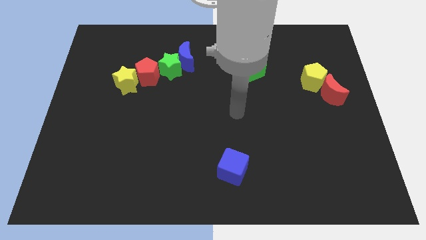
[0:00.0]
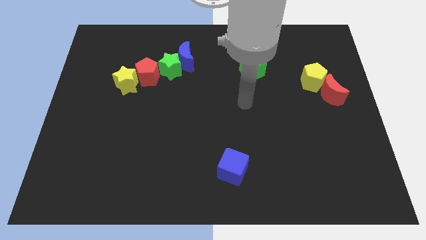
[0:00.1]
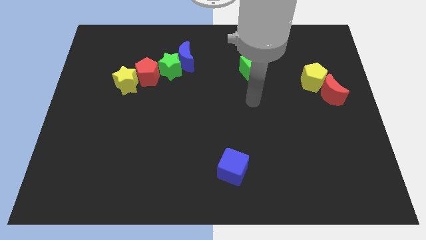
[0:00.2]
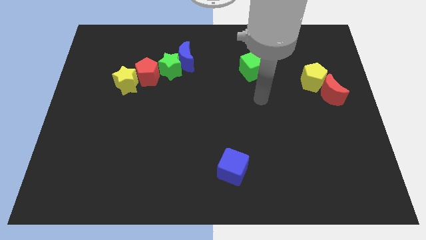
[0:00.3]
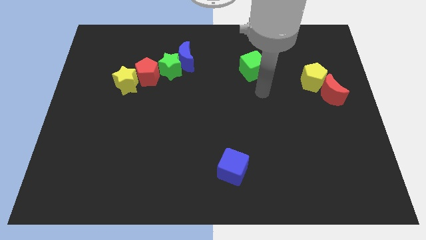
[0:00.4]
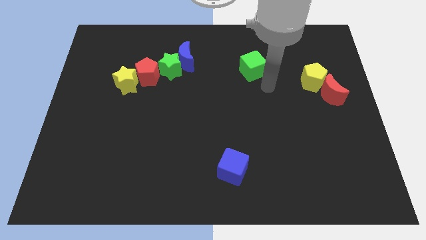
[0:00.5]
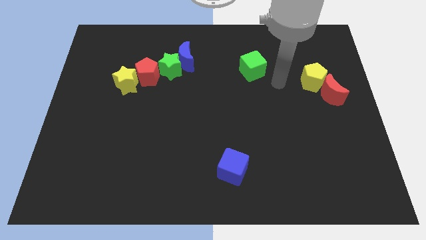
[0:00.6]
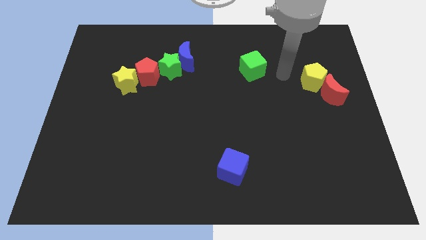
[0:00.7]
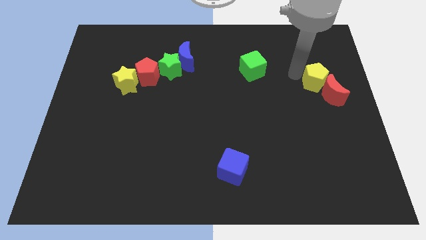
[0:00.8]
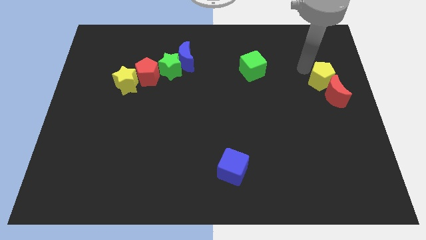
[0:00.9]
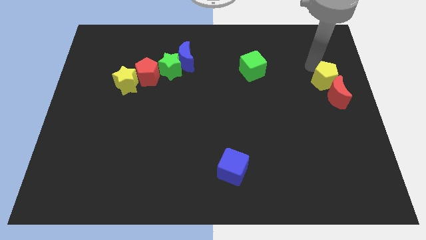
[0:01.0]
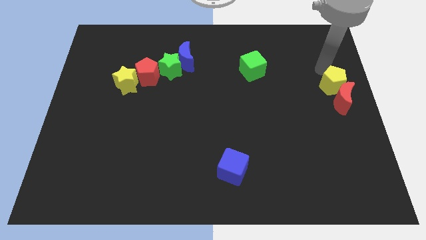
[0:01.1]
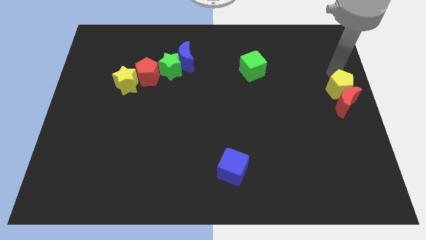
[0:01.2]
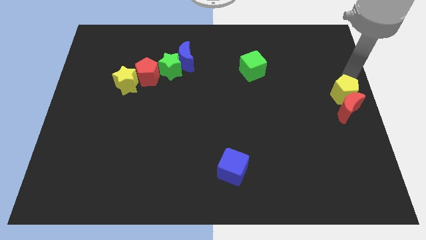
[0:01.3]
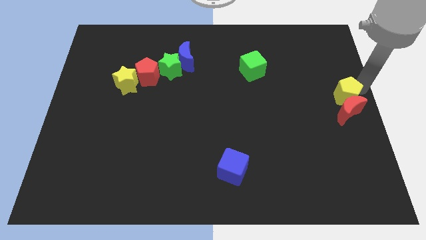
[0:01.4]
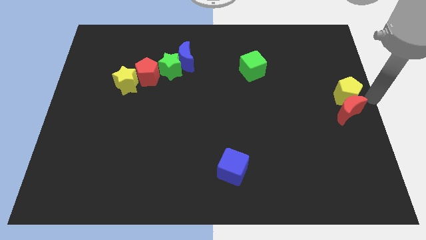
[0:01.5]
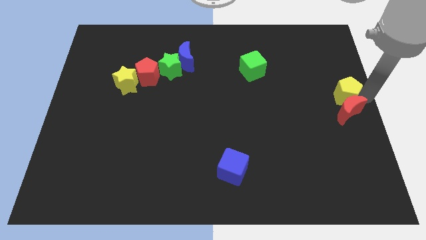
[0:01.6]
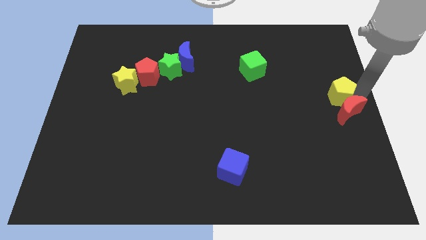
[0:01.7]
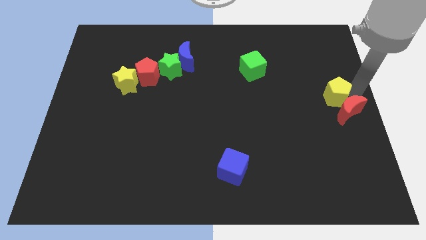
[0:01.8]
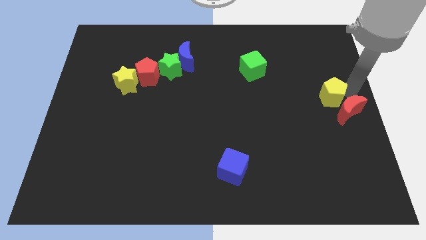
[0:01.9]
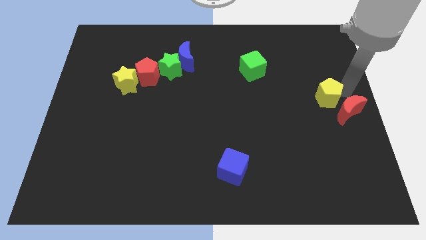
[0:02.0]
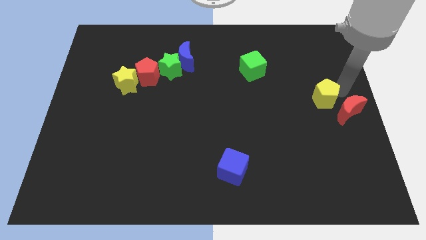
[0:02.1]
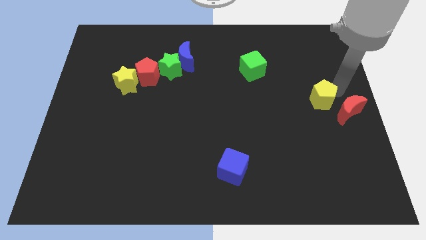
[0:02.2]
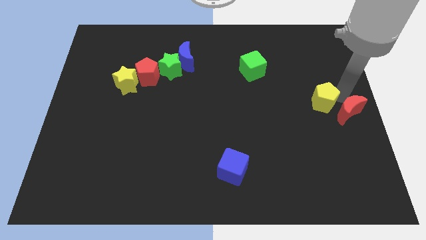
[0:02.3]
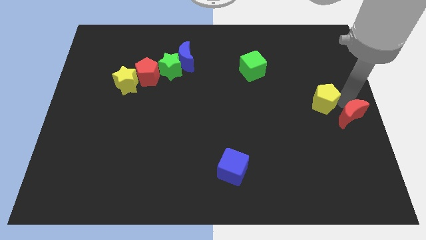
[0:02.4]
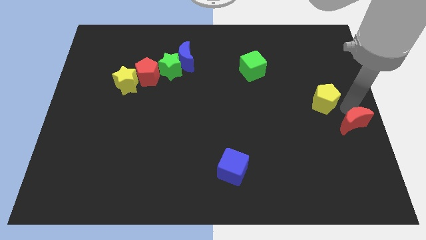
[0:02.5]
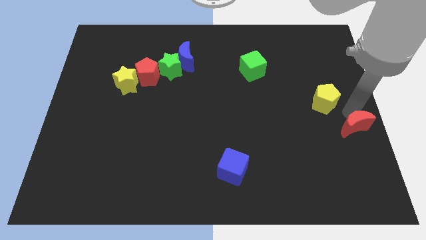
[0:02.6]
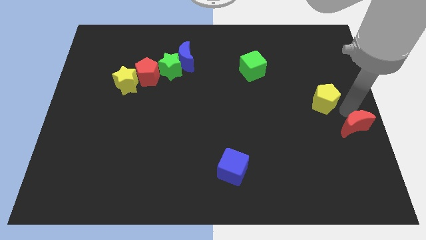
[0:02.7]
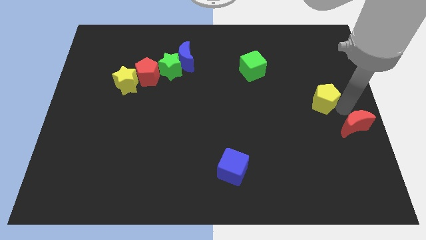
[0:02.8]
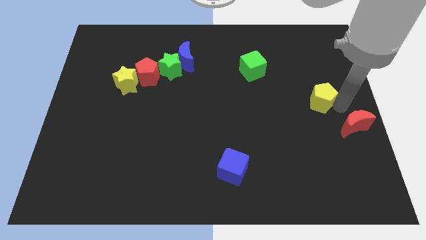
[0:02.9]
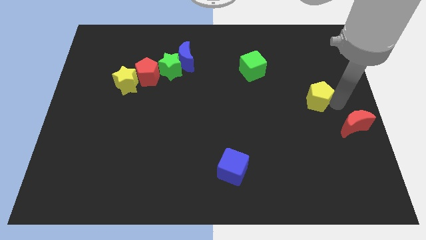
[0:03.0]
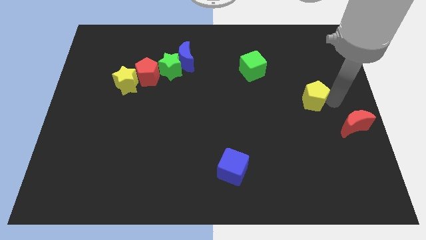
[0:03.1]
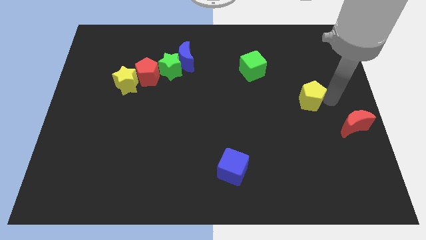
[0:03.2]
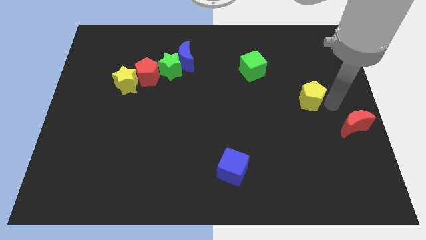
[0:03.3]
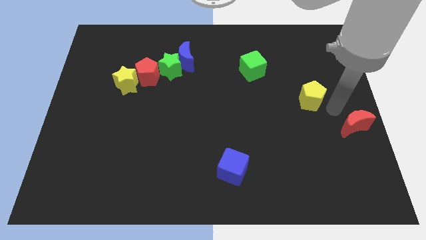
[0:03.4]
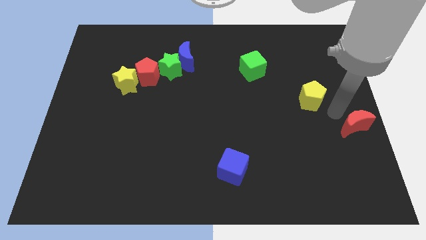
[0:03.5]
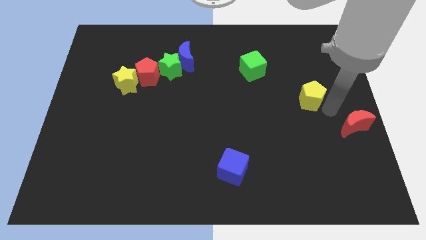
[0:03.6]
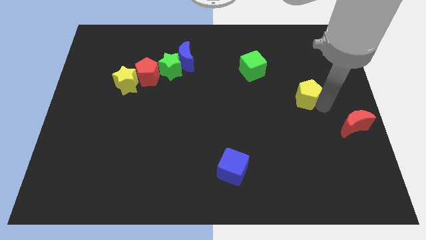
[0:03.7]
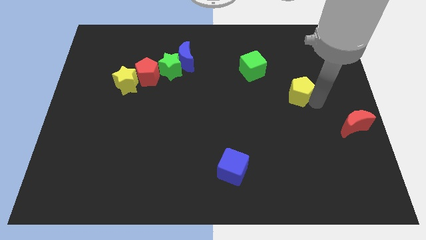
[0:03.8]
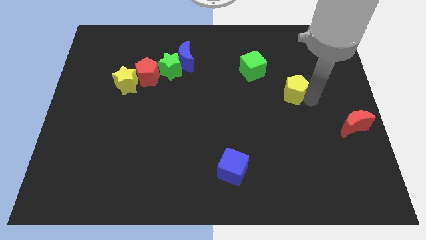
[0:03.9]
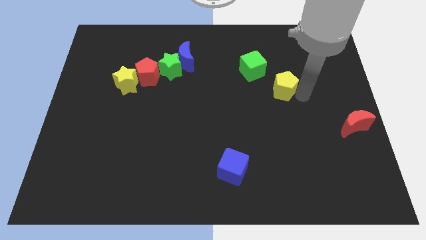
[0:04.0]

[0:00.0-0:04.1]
slide the yellow pentagon a little left

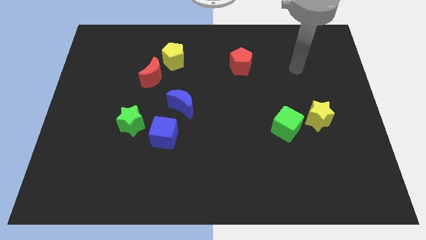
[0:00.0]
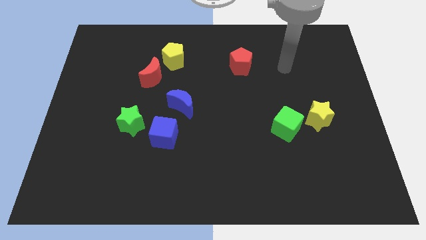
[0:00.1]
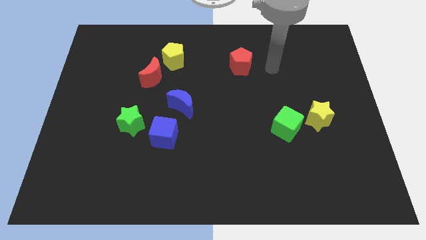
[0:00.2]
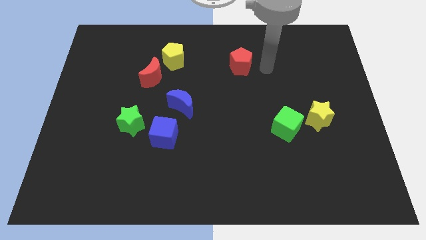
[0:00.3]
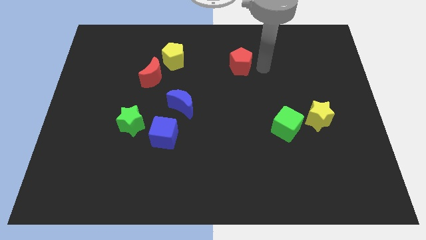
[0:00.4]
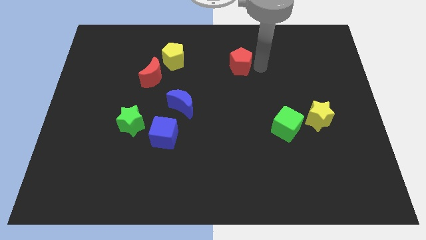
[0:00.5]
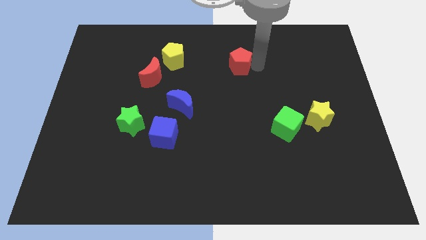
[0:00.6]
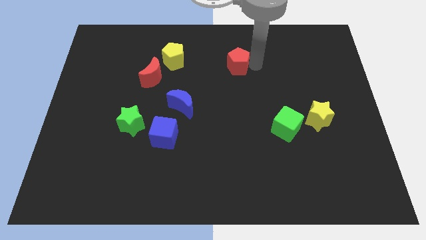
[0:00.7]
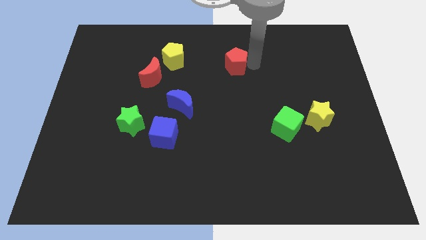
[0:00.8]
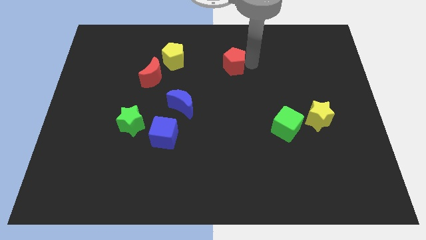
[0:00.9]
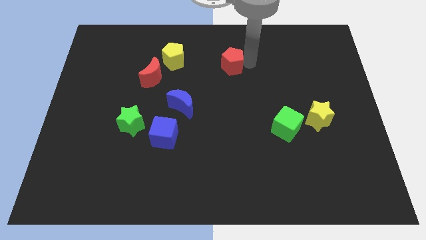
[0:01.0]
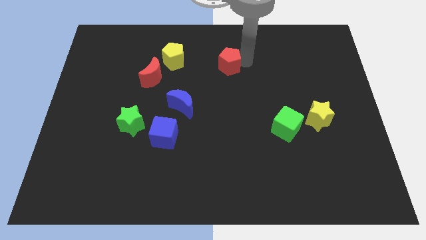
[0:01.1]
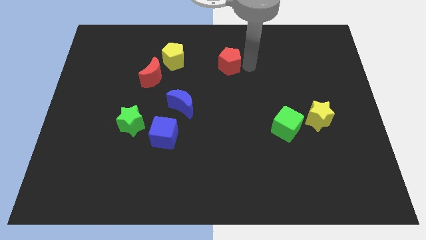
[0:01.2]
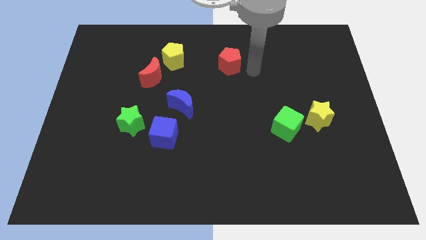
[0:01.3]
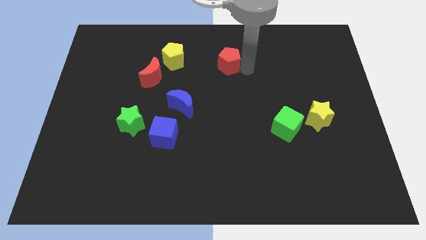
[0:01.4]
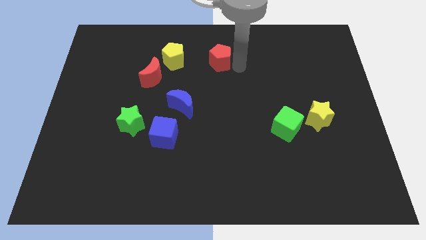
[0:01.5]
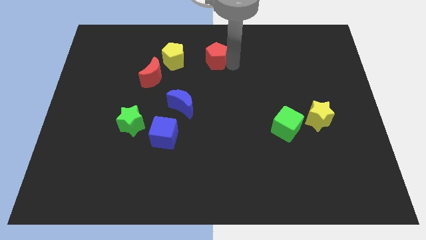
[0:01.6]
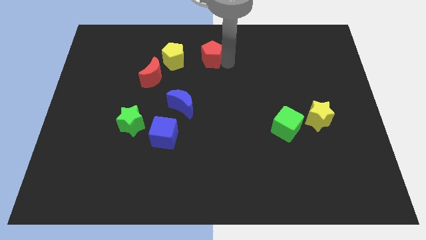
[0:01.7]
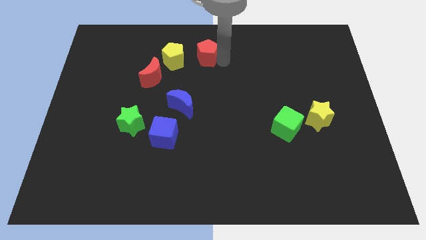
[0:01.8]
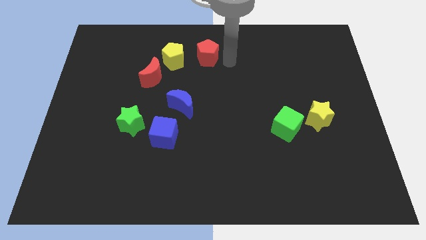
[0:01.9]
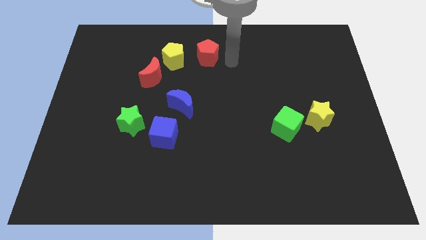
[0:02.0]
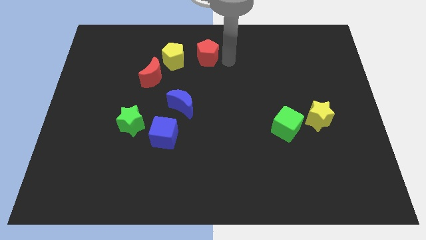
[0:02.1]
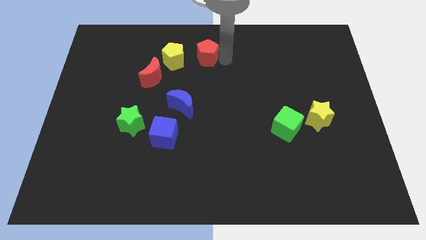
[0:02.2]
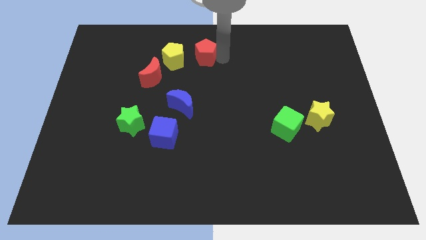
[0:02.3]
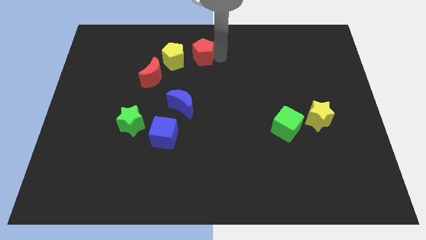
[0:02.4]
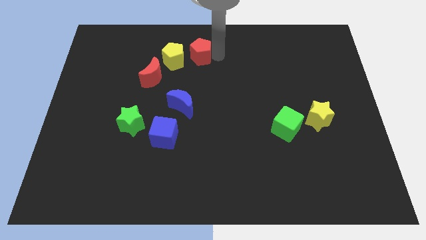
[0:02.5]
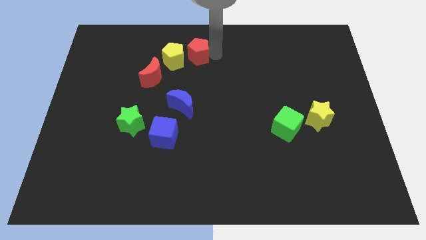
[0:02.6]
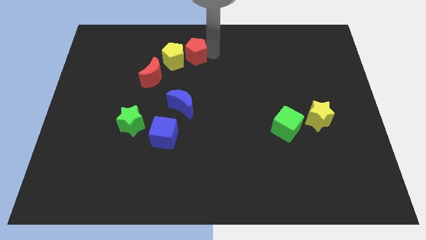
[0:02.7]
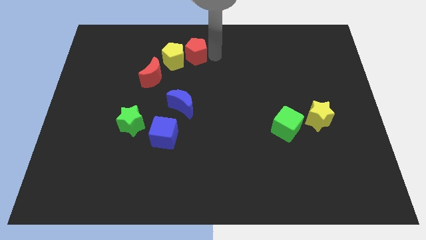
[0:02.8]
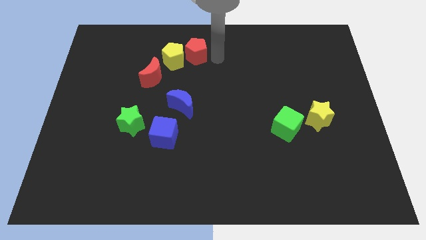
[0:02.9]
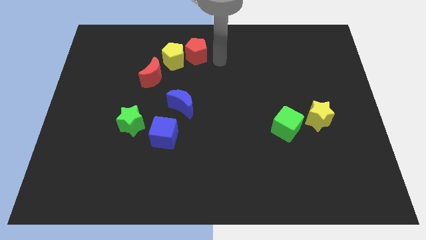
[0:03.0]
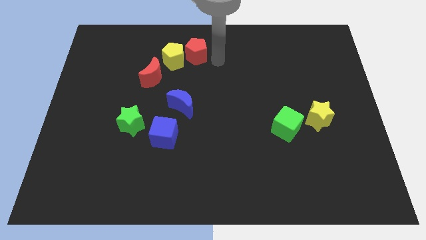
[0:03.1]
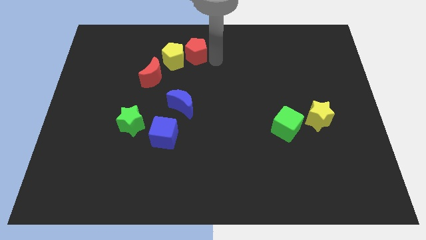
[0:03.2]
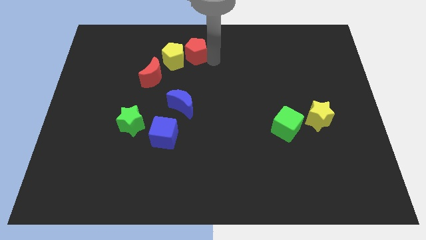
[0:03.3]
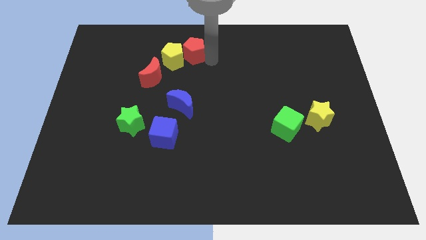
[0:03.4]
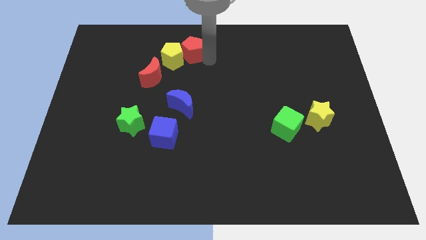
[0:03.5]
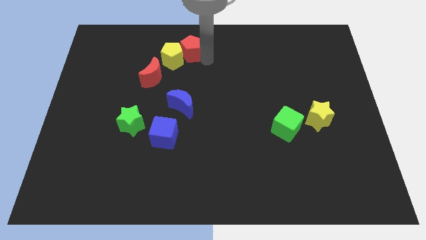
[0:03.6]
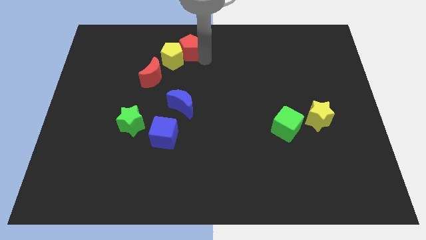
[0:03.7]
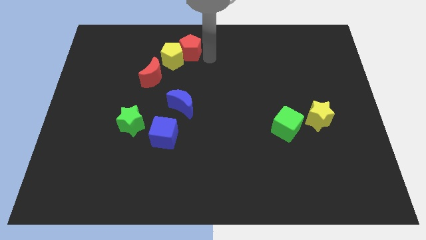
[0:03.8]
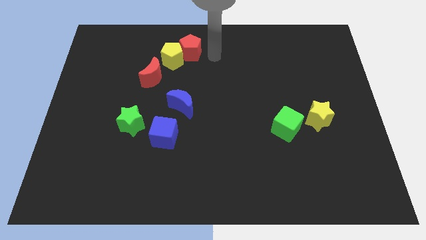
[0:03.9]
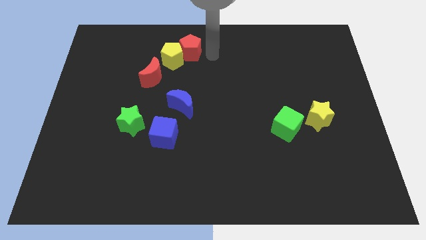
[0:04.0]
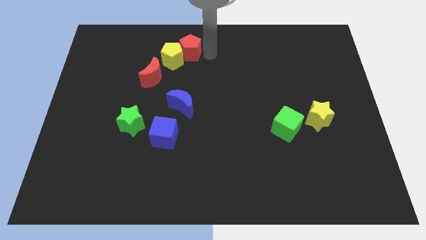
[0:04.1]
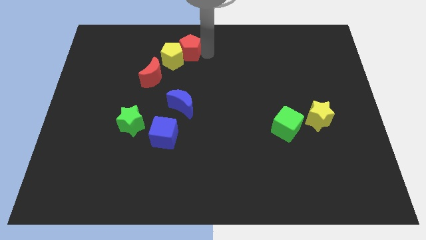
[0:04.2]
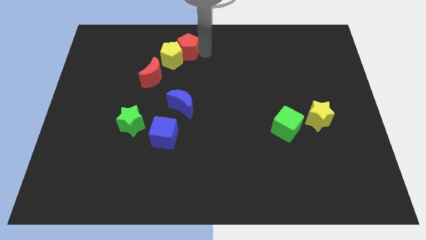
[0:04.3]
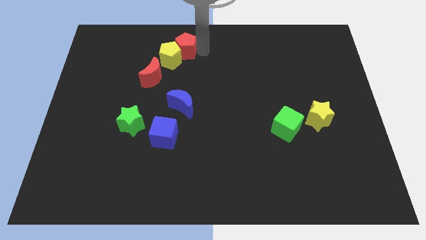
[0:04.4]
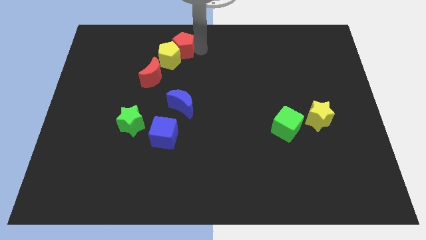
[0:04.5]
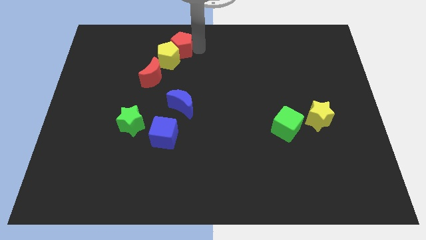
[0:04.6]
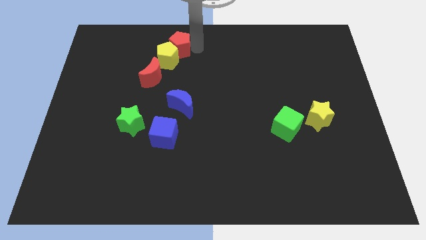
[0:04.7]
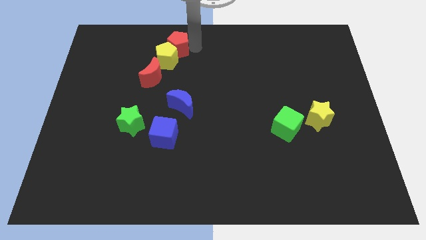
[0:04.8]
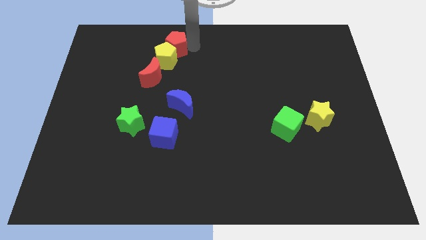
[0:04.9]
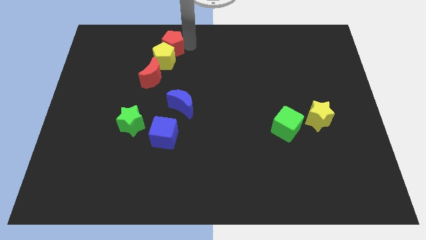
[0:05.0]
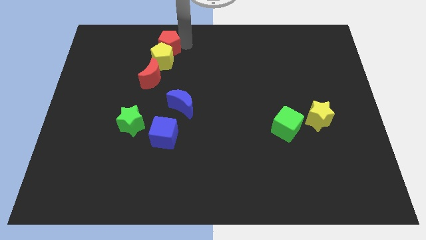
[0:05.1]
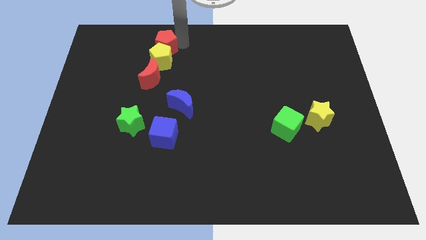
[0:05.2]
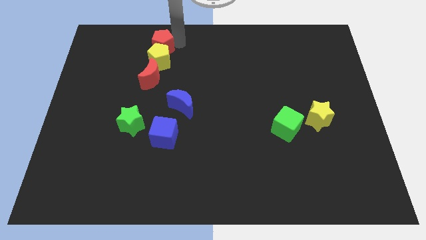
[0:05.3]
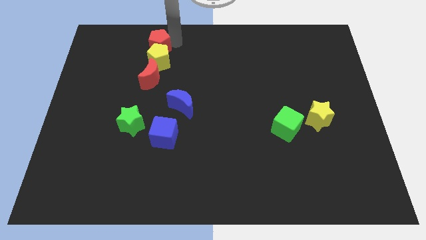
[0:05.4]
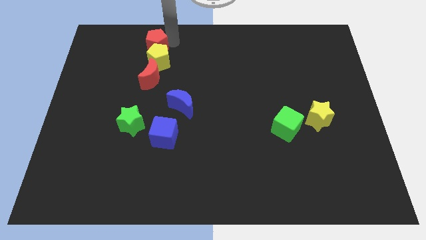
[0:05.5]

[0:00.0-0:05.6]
move the red pentagon left
